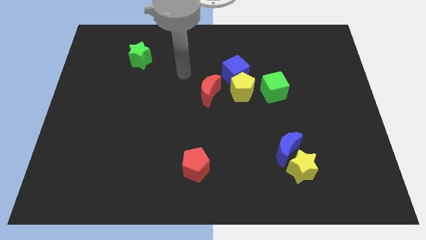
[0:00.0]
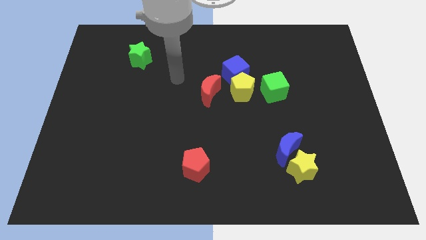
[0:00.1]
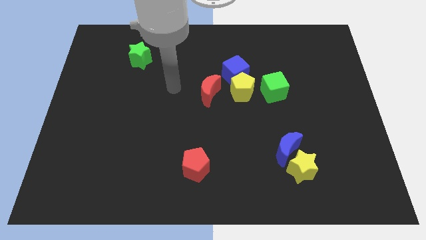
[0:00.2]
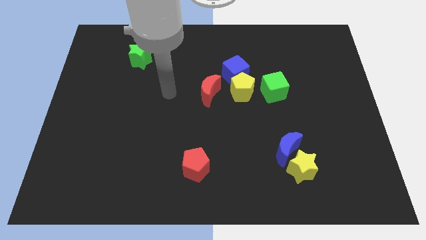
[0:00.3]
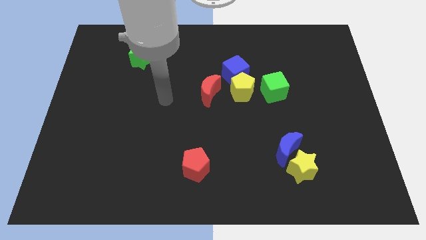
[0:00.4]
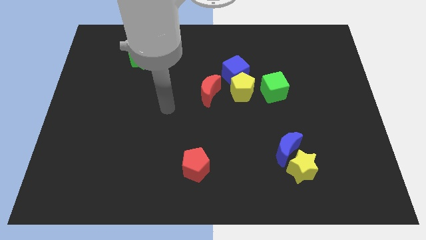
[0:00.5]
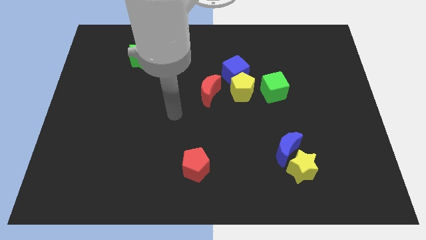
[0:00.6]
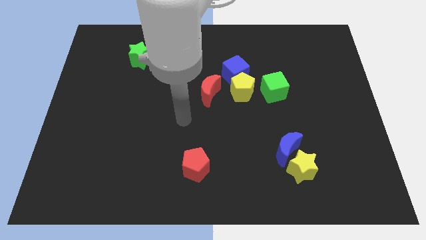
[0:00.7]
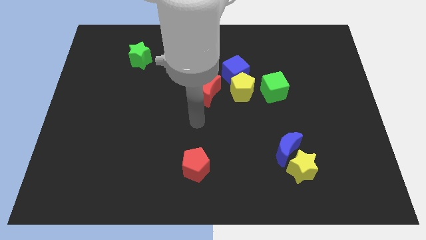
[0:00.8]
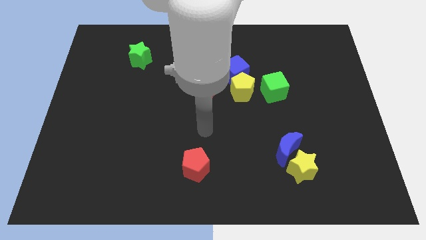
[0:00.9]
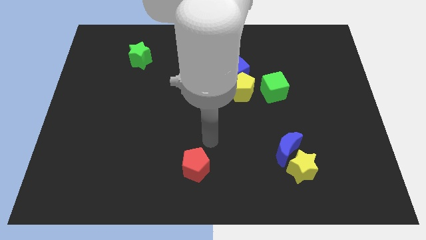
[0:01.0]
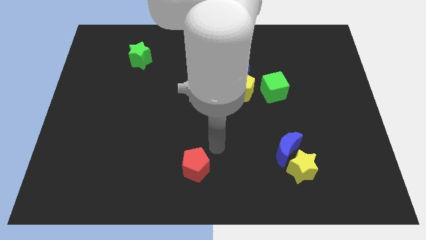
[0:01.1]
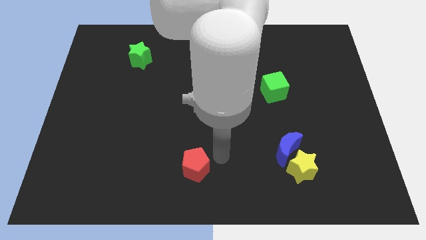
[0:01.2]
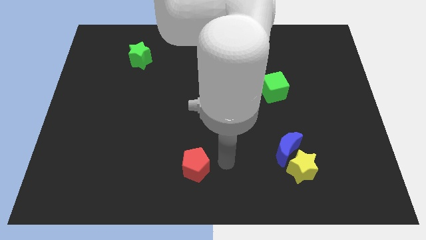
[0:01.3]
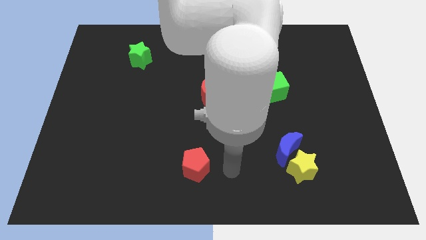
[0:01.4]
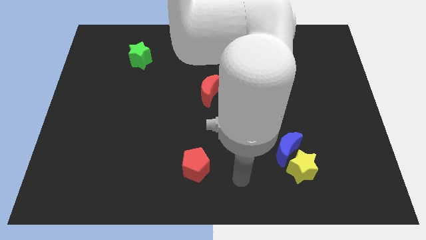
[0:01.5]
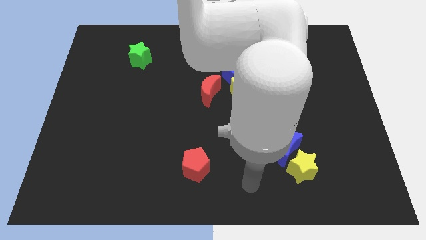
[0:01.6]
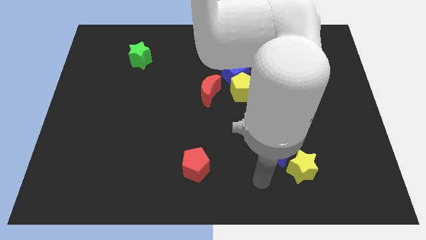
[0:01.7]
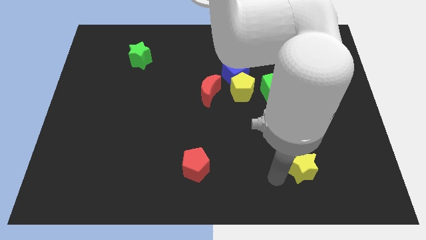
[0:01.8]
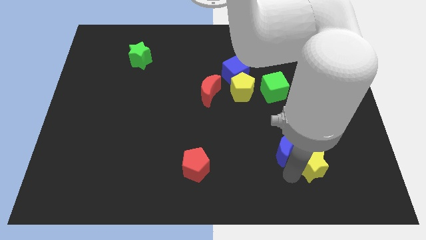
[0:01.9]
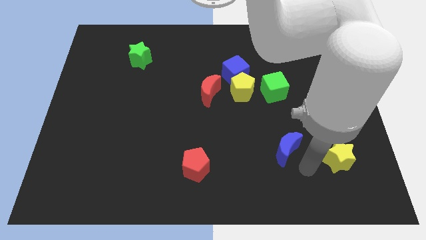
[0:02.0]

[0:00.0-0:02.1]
pull the blue moon apart from the yellow star

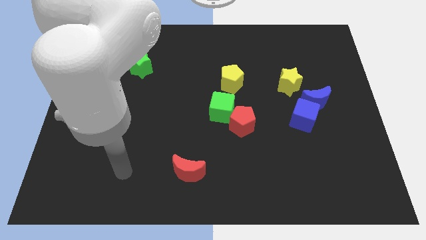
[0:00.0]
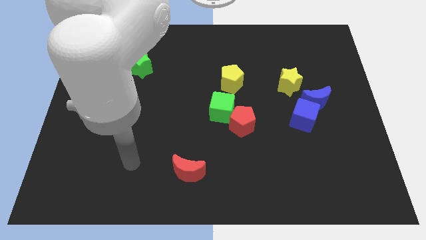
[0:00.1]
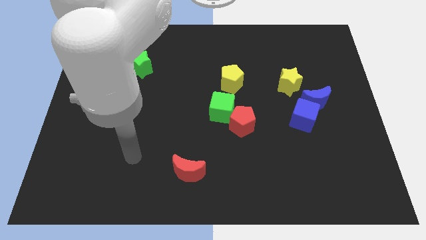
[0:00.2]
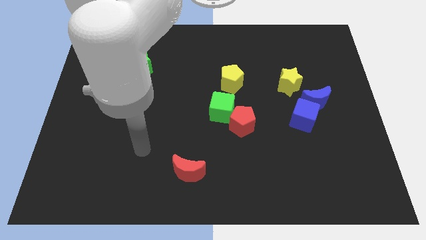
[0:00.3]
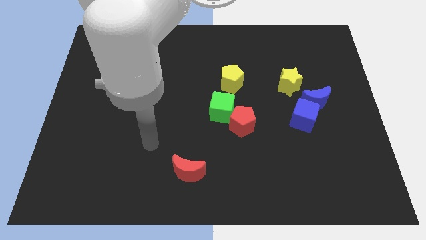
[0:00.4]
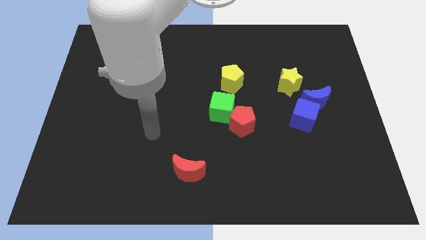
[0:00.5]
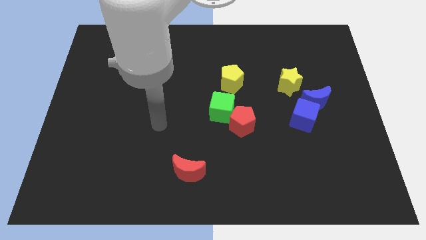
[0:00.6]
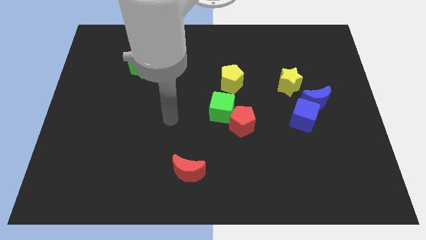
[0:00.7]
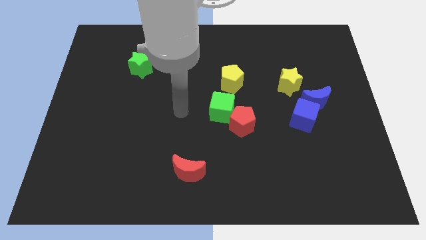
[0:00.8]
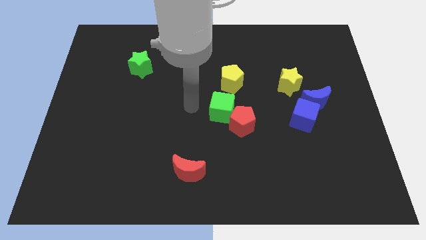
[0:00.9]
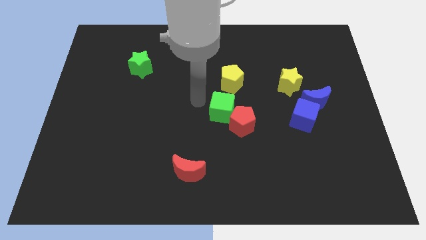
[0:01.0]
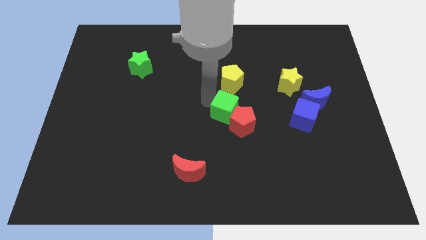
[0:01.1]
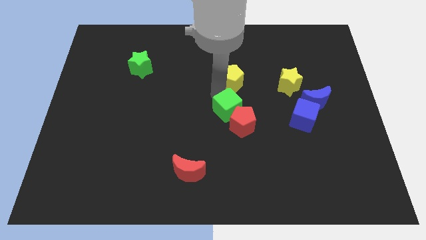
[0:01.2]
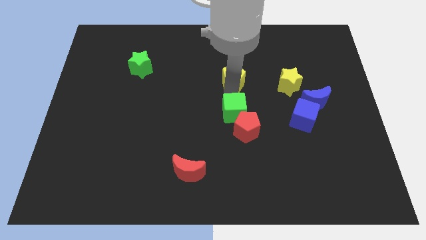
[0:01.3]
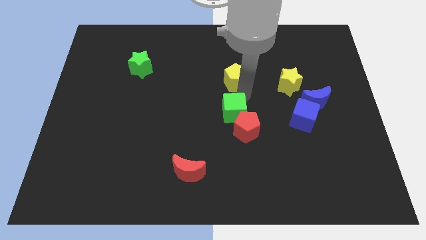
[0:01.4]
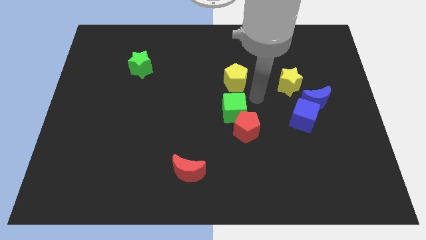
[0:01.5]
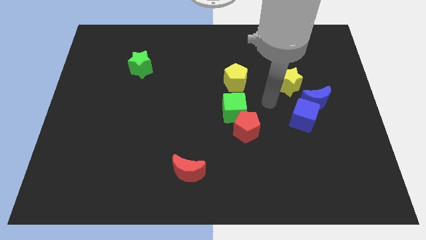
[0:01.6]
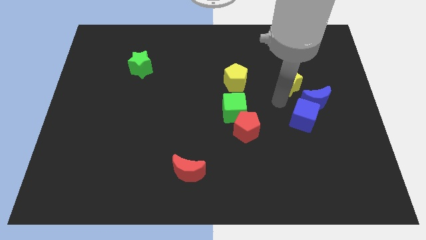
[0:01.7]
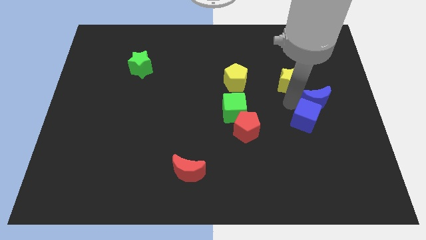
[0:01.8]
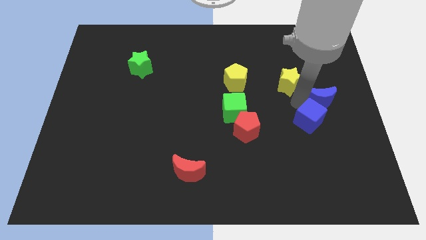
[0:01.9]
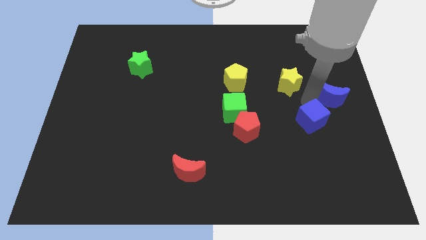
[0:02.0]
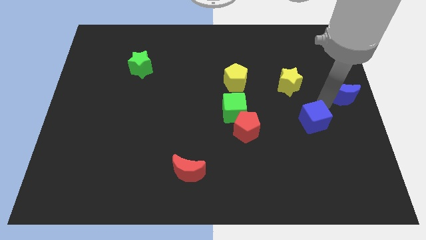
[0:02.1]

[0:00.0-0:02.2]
move the blue cube away from the blue moon

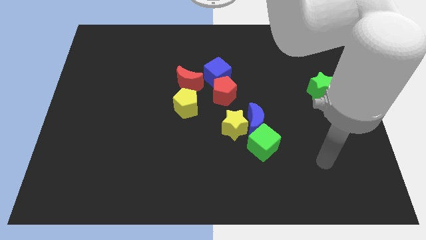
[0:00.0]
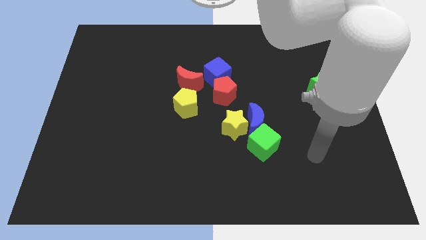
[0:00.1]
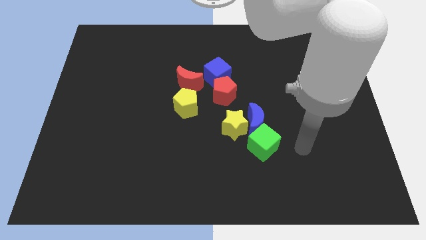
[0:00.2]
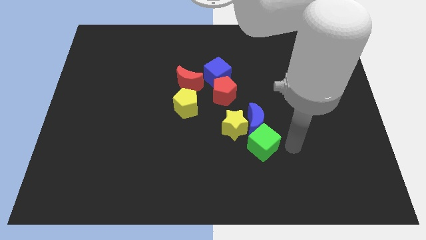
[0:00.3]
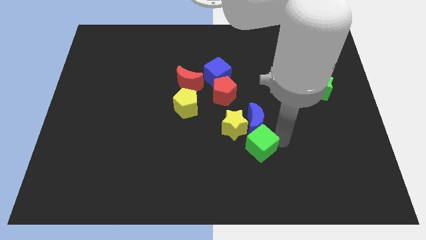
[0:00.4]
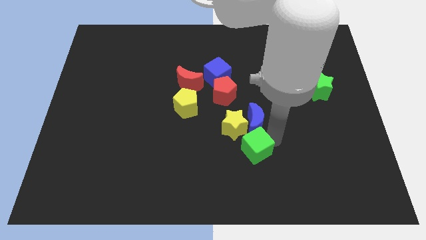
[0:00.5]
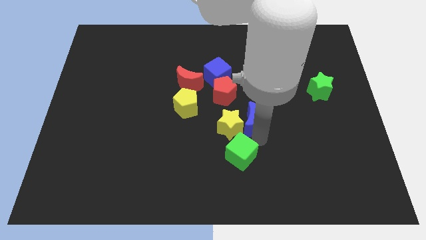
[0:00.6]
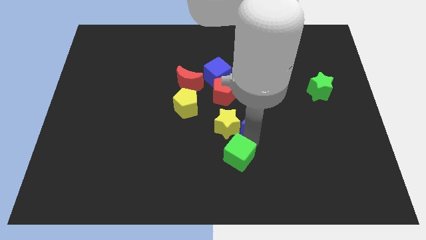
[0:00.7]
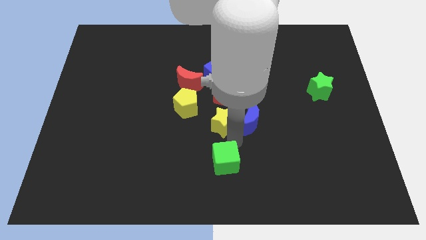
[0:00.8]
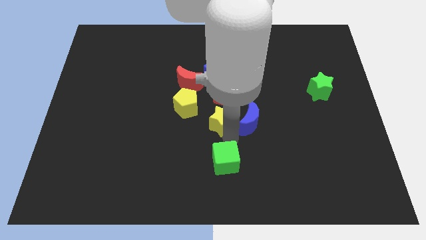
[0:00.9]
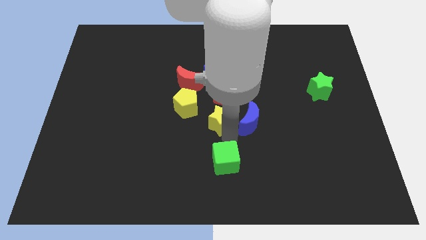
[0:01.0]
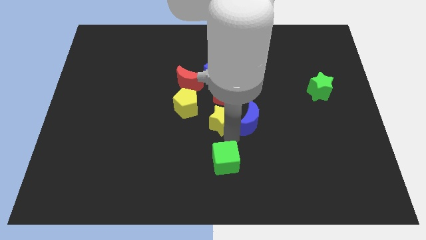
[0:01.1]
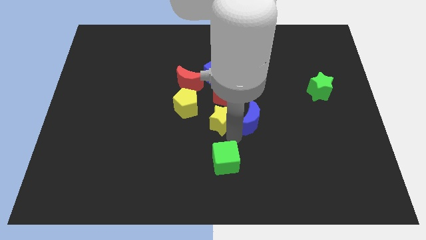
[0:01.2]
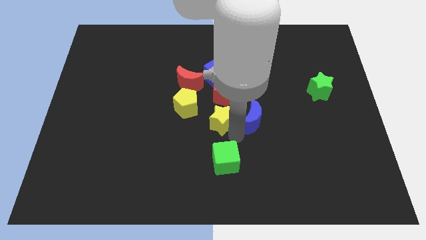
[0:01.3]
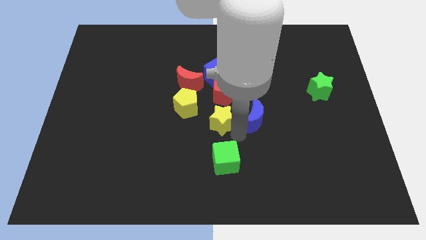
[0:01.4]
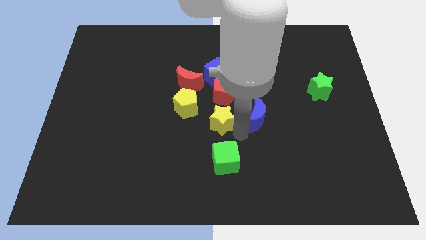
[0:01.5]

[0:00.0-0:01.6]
pull the blue moon apart from the yellow star and green cube

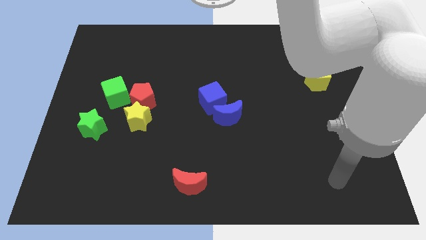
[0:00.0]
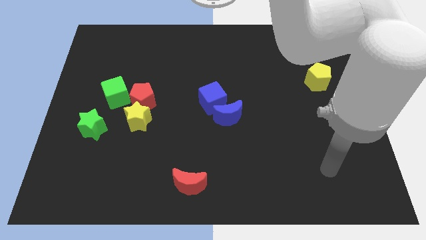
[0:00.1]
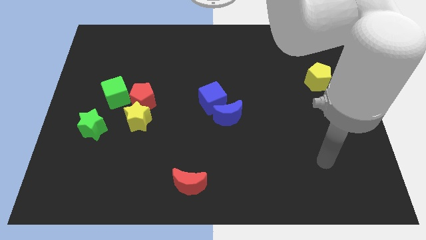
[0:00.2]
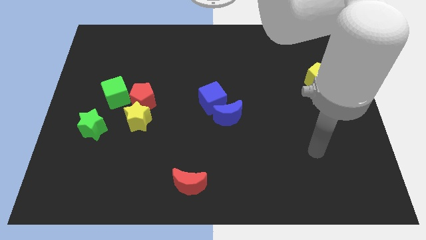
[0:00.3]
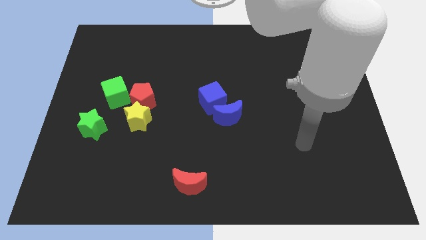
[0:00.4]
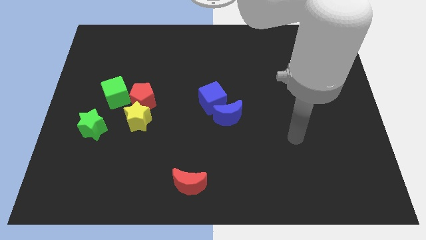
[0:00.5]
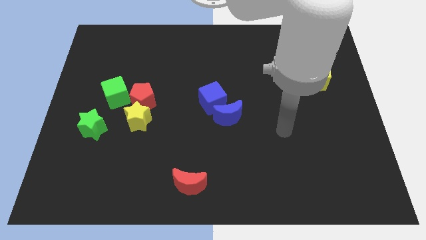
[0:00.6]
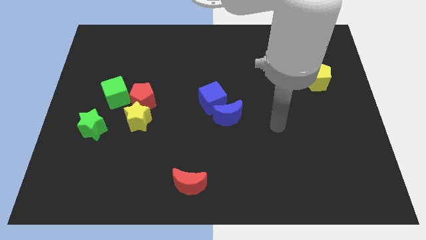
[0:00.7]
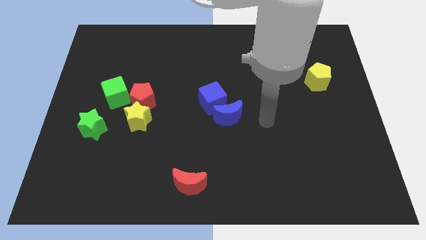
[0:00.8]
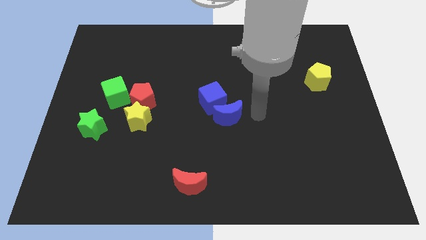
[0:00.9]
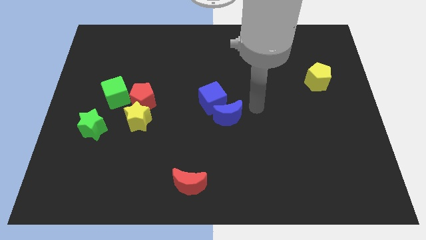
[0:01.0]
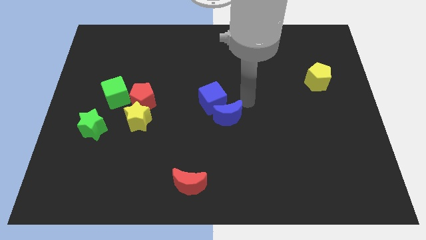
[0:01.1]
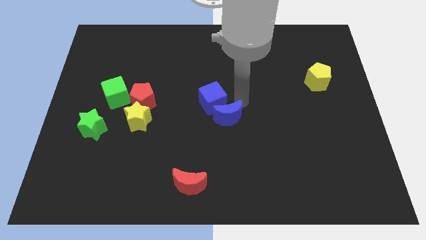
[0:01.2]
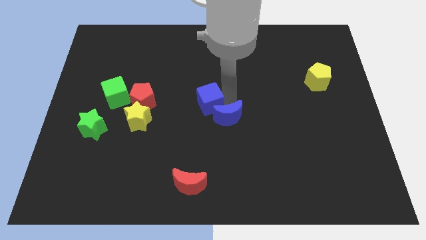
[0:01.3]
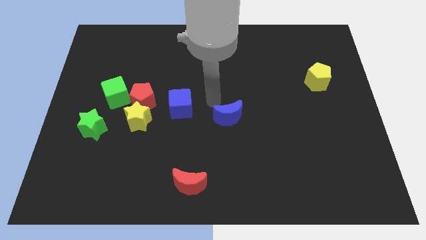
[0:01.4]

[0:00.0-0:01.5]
move the blue moon away from the blue cube

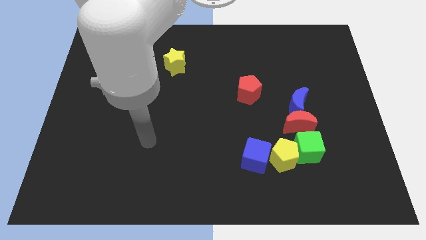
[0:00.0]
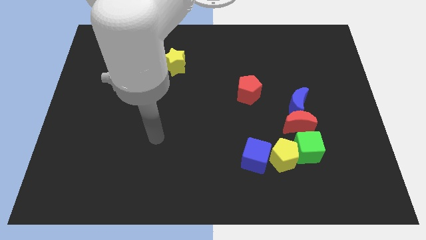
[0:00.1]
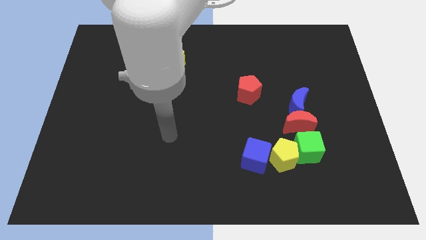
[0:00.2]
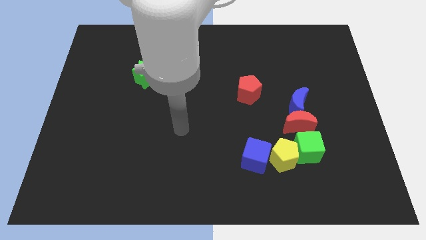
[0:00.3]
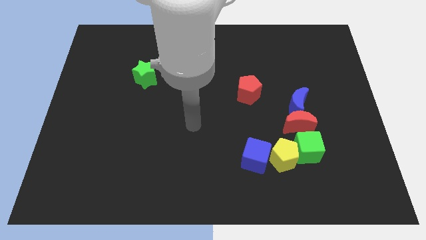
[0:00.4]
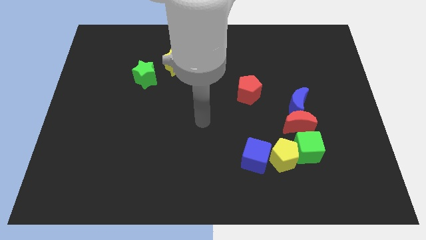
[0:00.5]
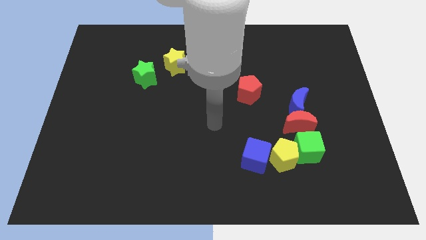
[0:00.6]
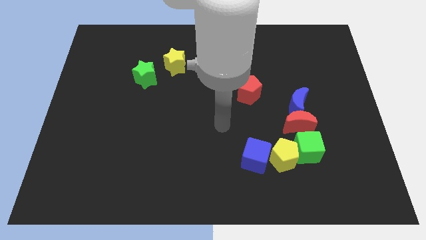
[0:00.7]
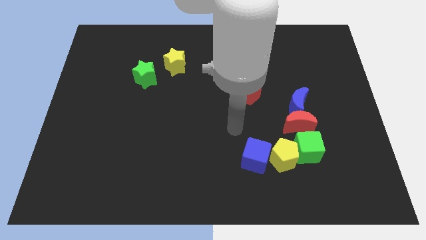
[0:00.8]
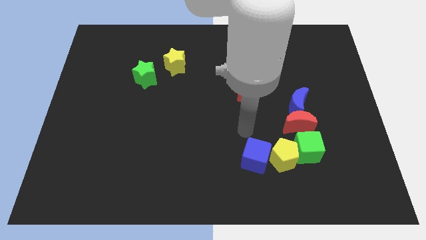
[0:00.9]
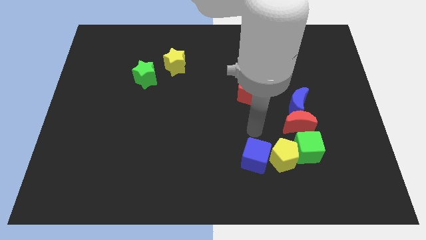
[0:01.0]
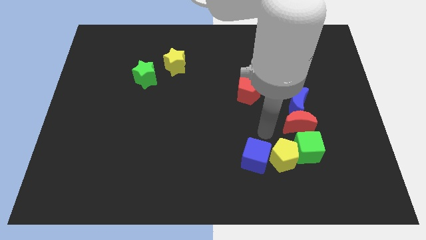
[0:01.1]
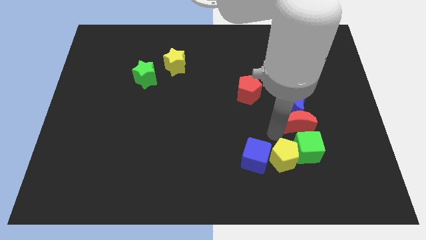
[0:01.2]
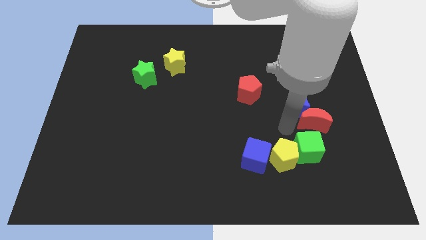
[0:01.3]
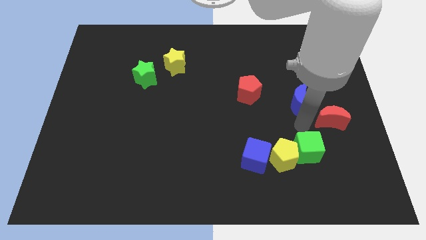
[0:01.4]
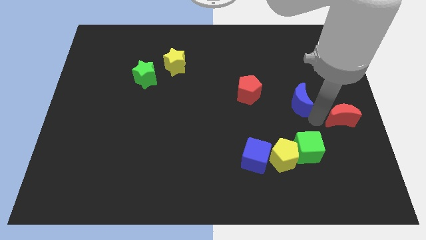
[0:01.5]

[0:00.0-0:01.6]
move the blue moon away from the red moon

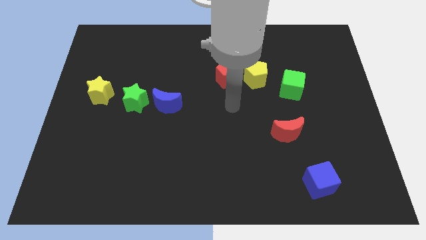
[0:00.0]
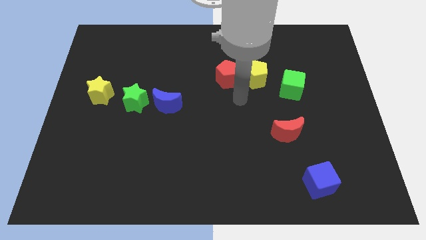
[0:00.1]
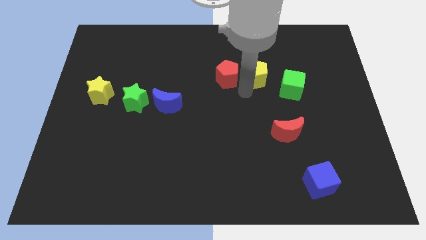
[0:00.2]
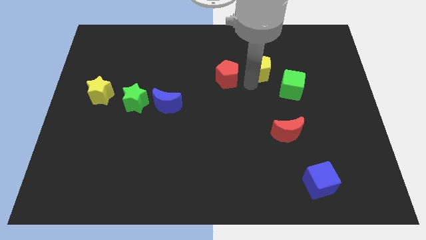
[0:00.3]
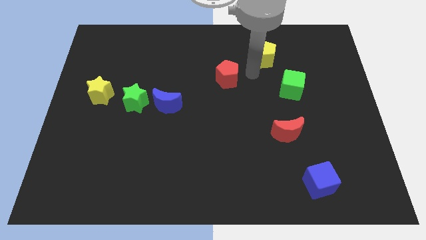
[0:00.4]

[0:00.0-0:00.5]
move the red pentagon away from the yellow pentagon
